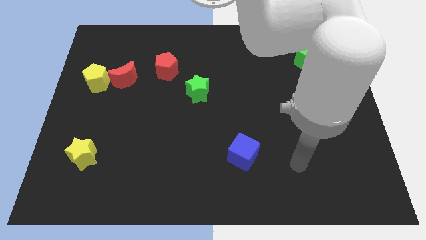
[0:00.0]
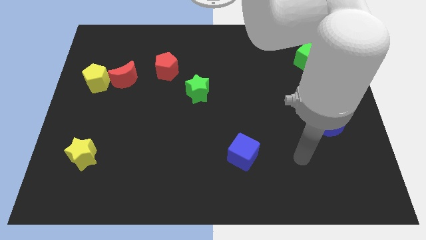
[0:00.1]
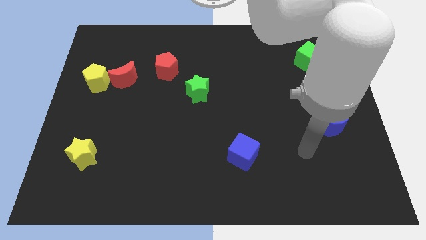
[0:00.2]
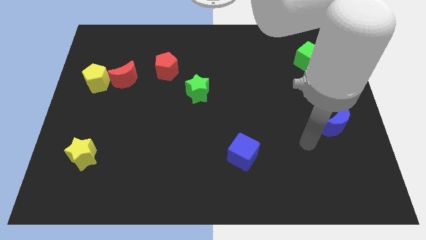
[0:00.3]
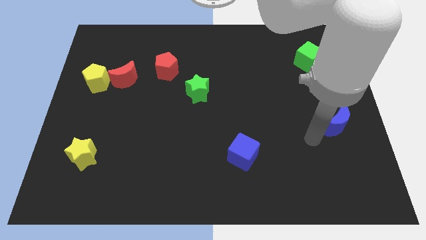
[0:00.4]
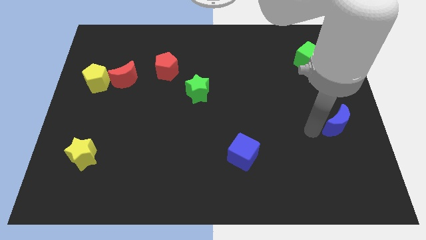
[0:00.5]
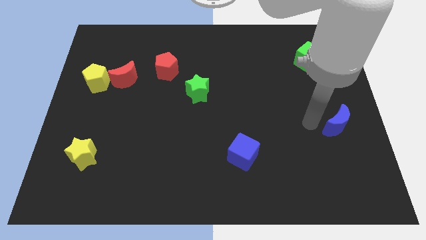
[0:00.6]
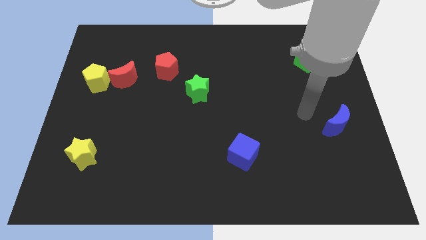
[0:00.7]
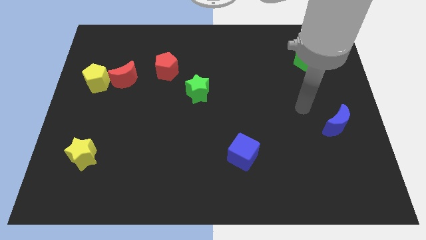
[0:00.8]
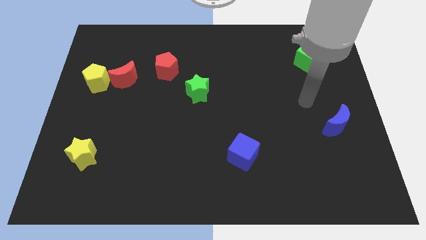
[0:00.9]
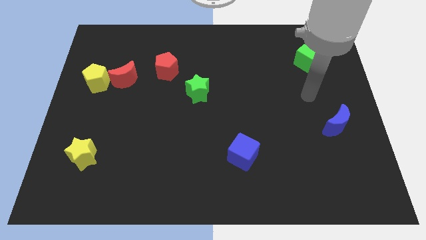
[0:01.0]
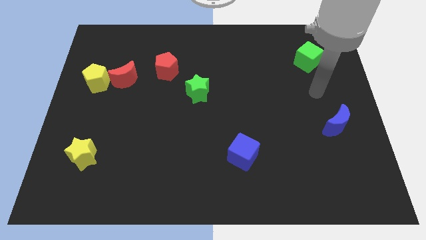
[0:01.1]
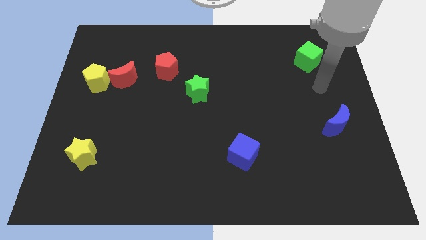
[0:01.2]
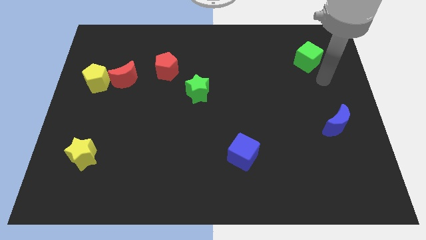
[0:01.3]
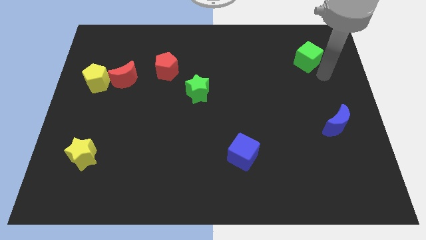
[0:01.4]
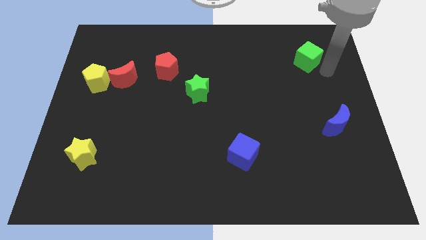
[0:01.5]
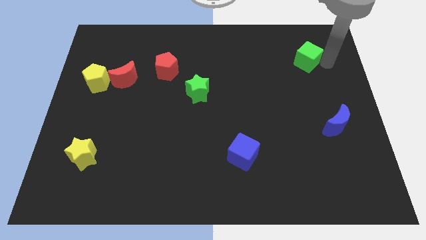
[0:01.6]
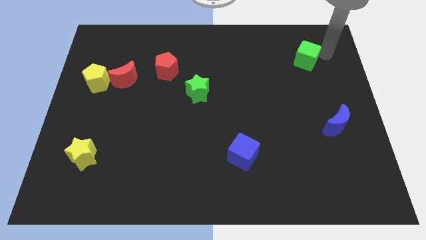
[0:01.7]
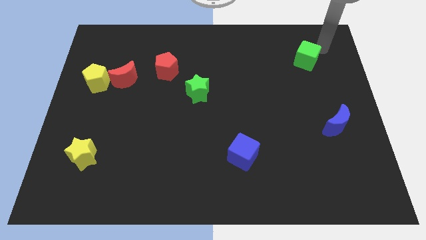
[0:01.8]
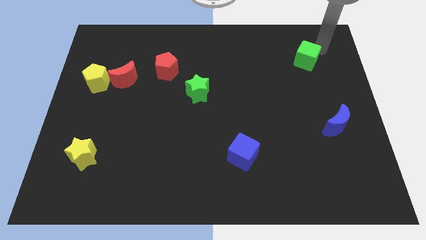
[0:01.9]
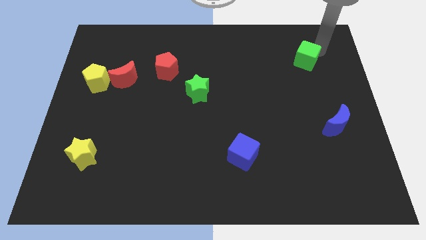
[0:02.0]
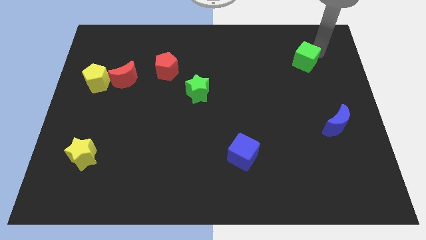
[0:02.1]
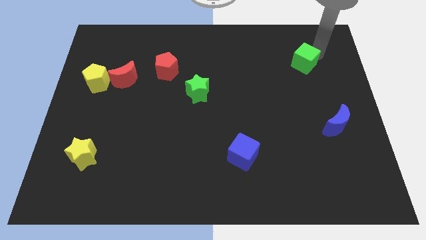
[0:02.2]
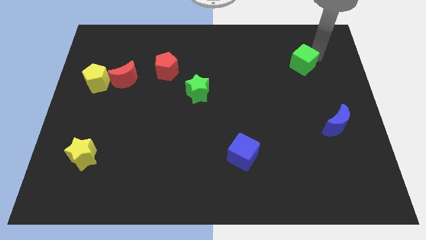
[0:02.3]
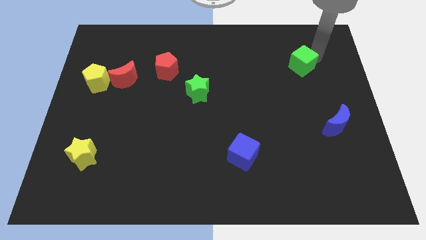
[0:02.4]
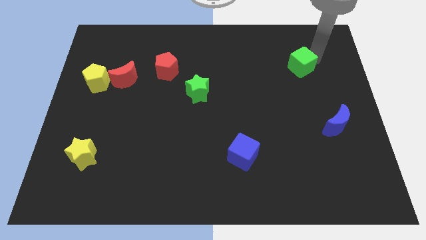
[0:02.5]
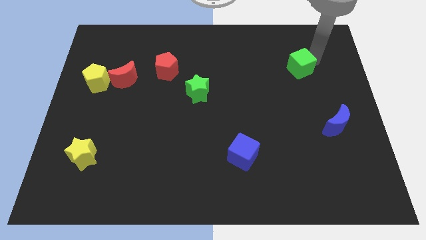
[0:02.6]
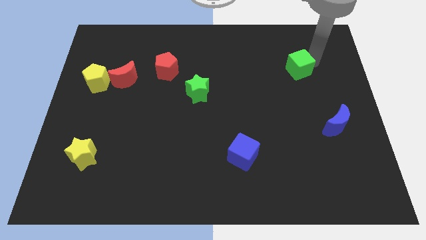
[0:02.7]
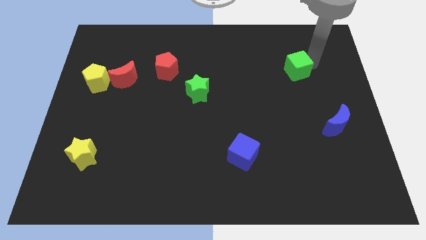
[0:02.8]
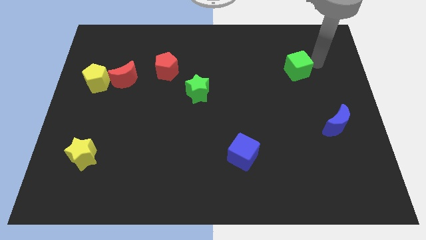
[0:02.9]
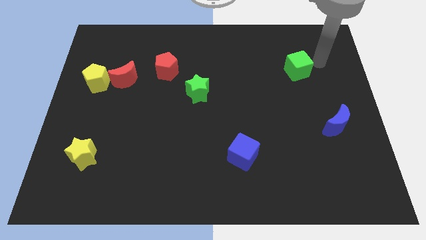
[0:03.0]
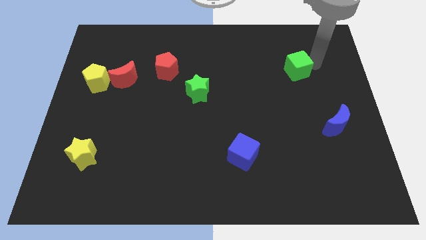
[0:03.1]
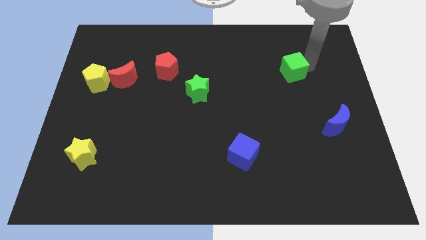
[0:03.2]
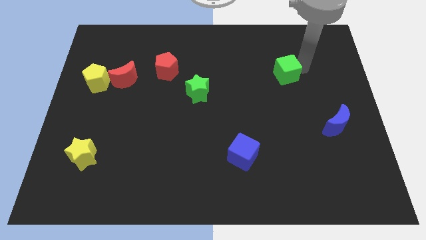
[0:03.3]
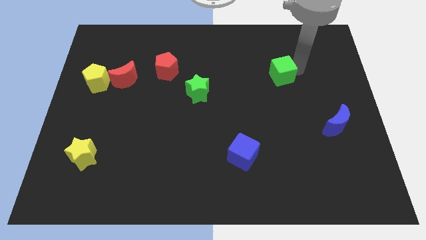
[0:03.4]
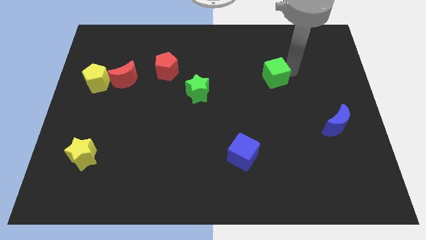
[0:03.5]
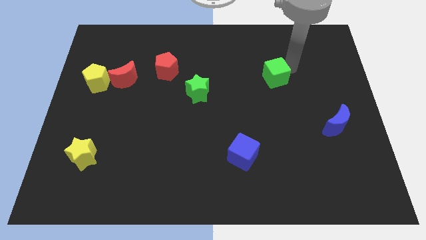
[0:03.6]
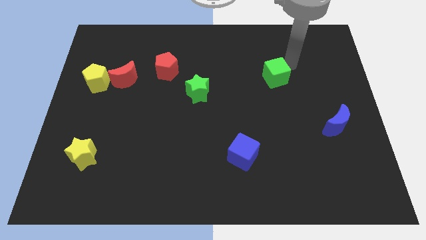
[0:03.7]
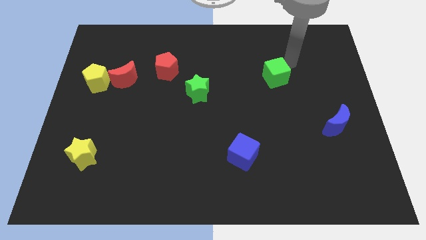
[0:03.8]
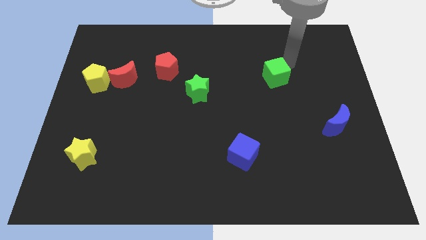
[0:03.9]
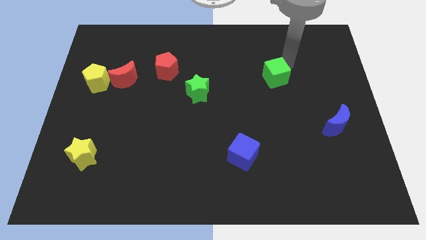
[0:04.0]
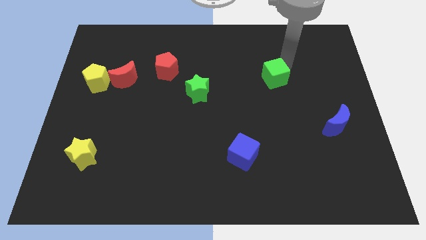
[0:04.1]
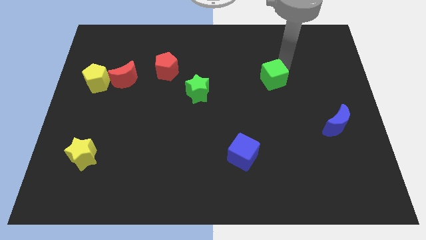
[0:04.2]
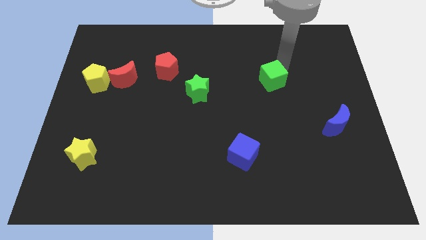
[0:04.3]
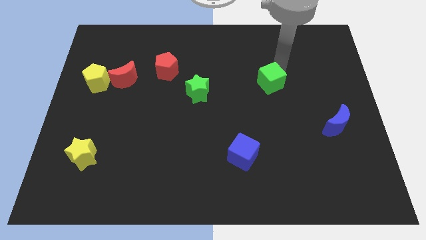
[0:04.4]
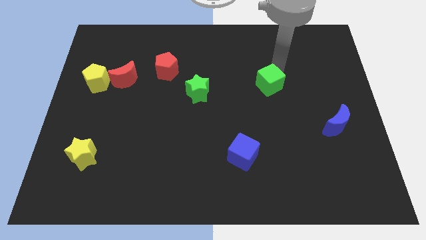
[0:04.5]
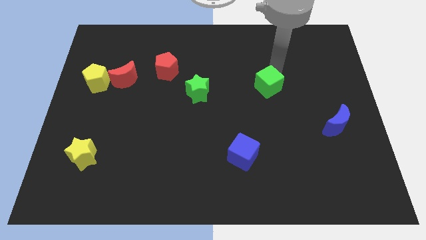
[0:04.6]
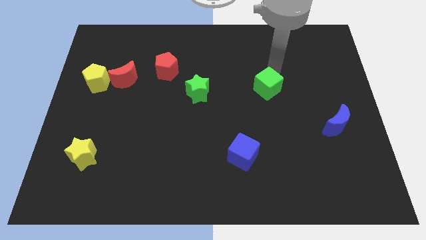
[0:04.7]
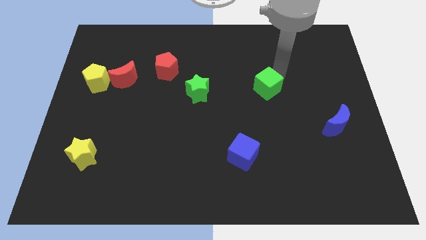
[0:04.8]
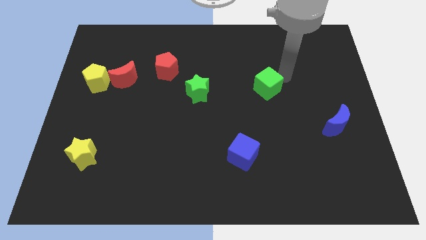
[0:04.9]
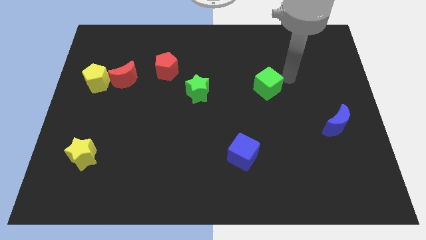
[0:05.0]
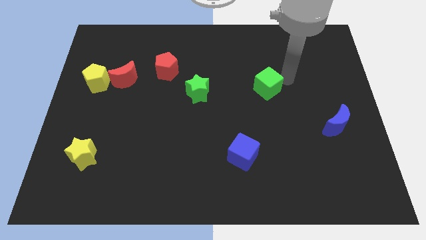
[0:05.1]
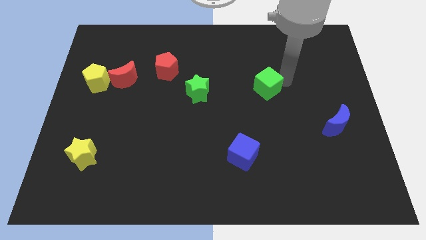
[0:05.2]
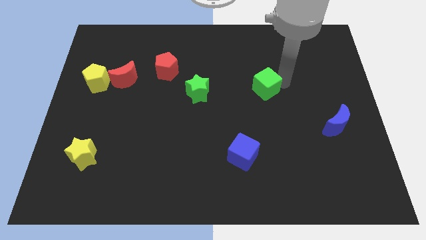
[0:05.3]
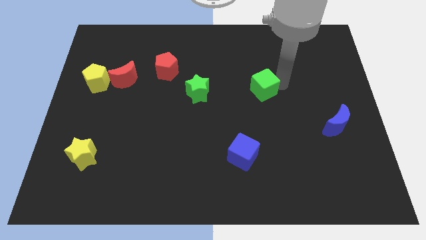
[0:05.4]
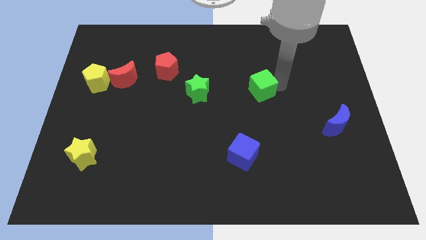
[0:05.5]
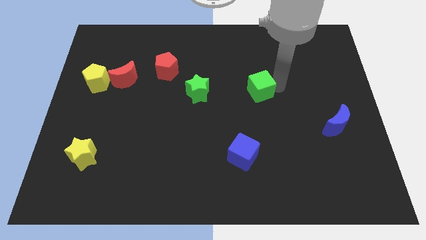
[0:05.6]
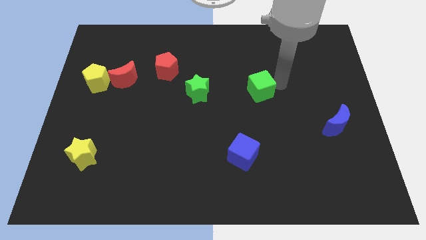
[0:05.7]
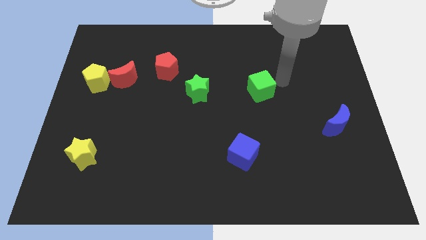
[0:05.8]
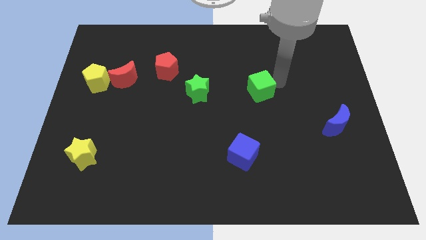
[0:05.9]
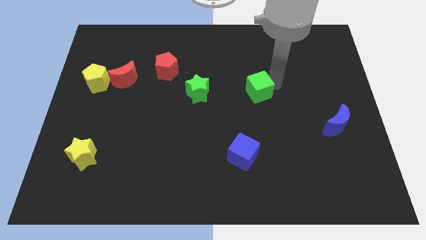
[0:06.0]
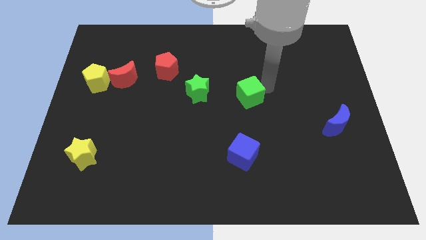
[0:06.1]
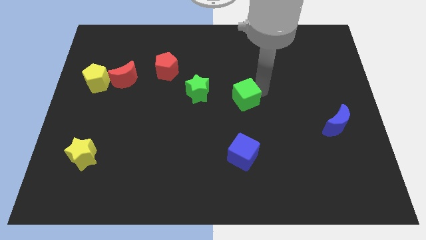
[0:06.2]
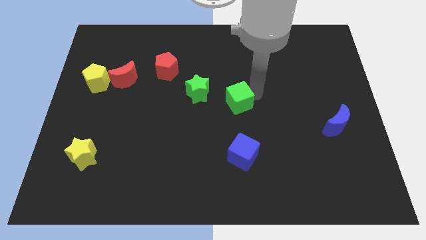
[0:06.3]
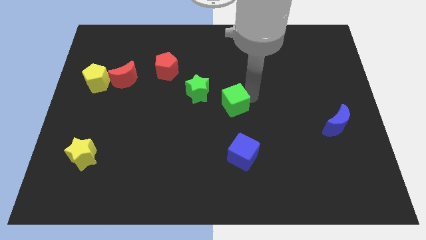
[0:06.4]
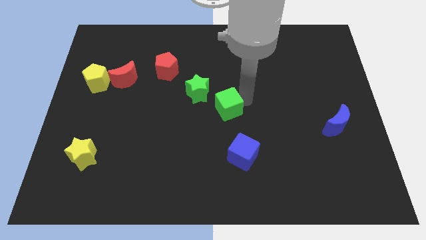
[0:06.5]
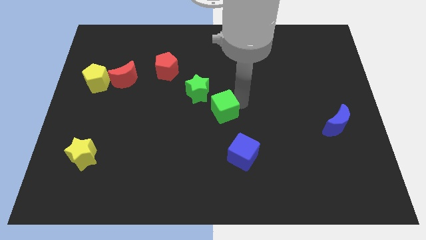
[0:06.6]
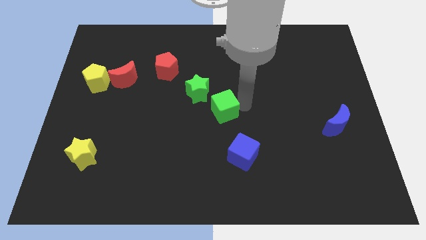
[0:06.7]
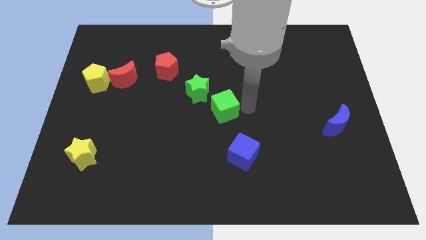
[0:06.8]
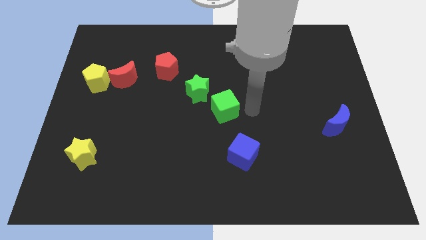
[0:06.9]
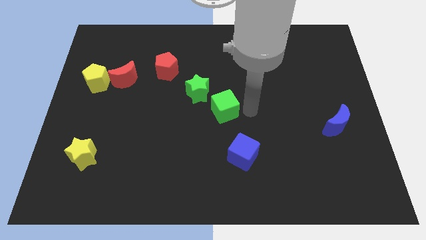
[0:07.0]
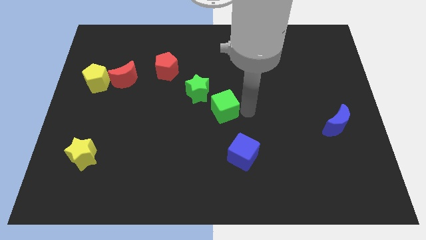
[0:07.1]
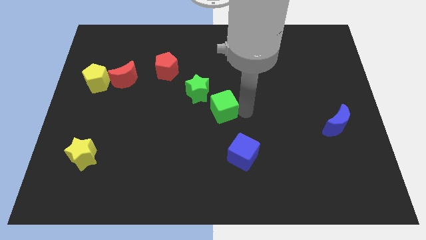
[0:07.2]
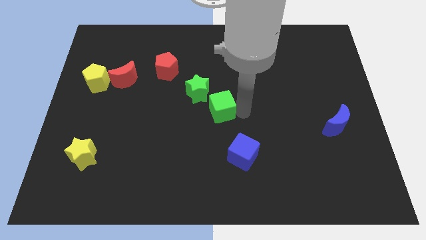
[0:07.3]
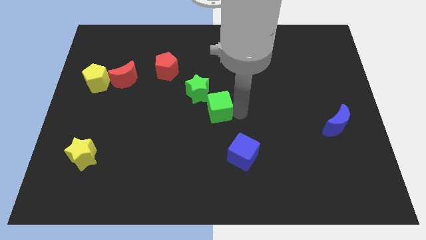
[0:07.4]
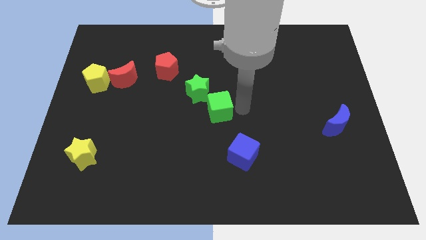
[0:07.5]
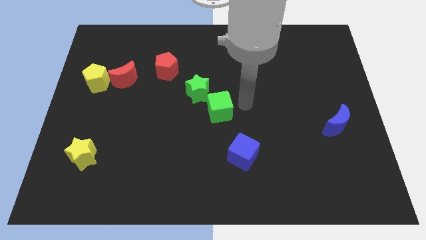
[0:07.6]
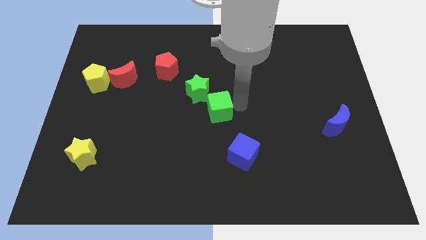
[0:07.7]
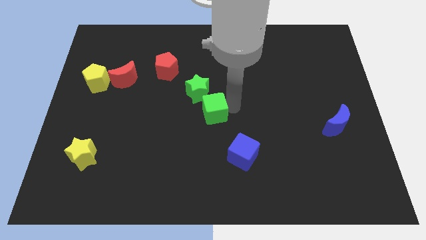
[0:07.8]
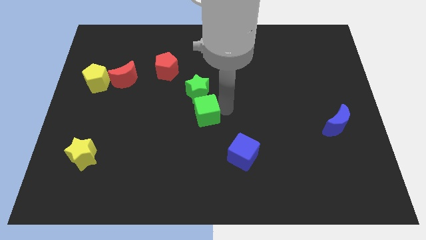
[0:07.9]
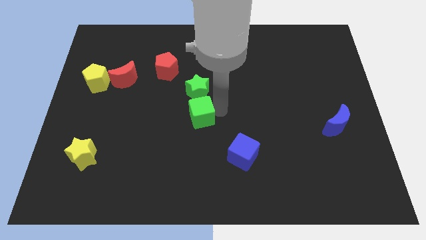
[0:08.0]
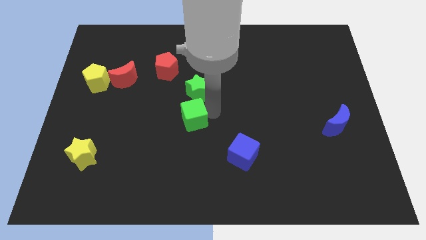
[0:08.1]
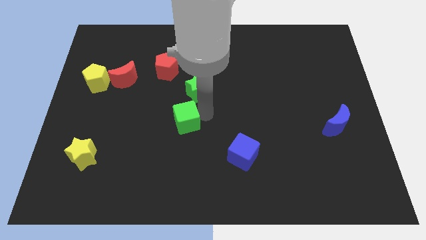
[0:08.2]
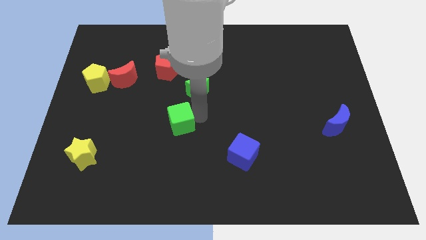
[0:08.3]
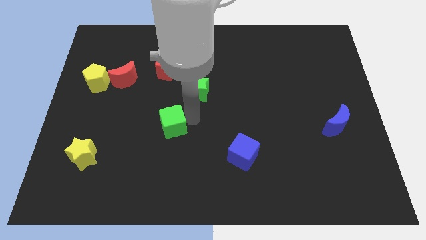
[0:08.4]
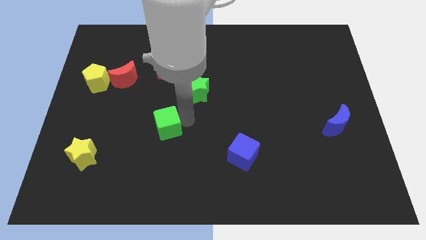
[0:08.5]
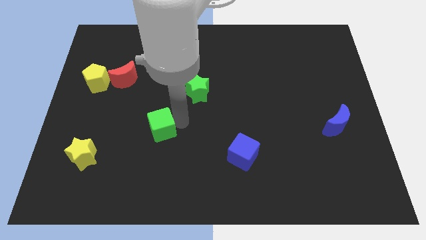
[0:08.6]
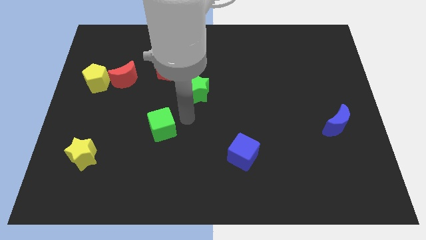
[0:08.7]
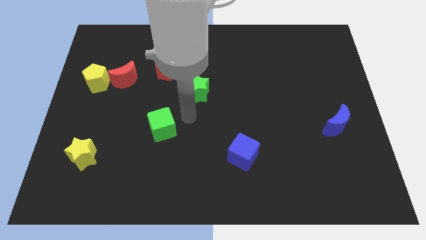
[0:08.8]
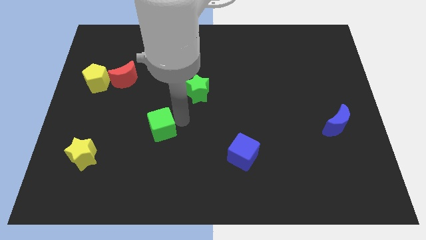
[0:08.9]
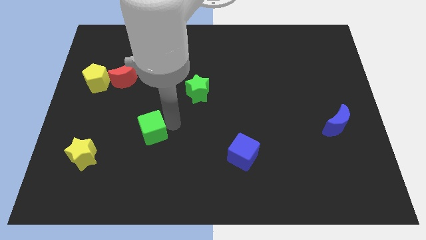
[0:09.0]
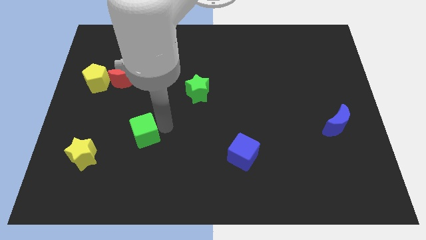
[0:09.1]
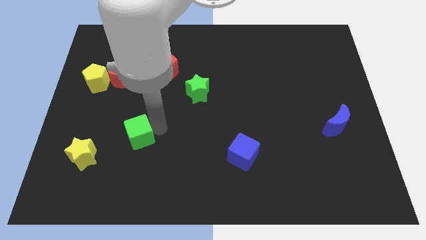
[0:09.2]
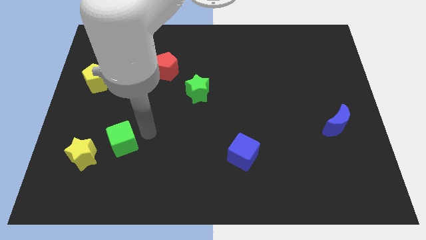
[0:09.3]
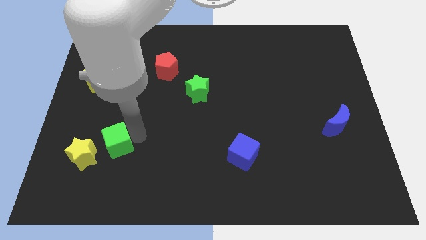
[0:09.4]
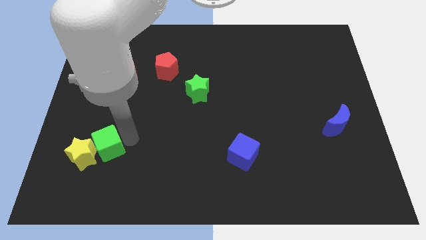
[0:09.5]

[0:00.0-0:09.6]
push the green cube next to the yellow star
